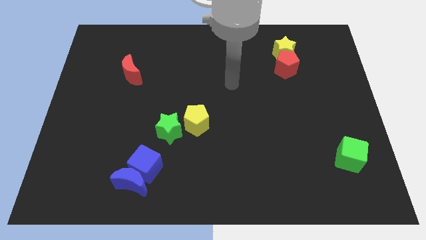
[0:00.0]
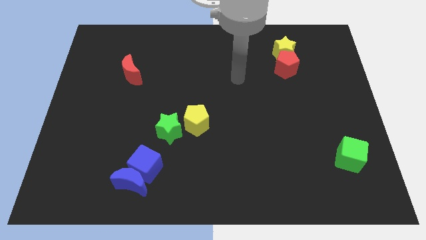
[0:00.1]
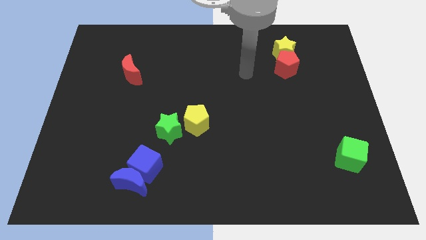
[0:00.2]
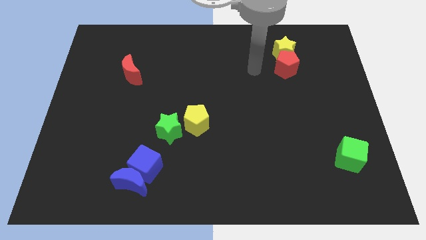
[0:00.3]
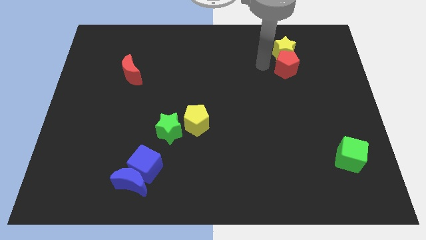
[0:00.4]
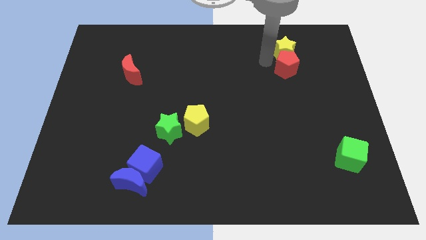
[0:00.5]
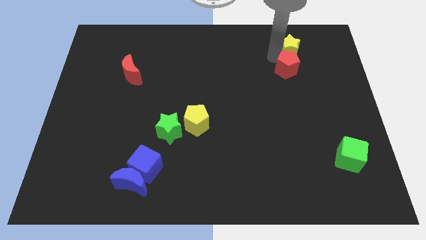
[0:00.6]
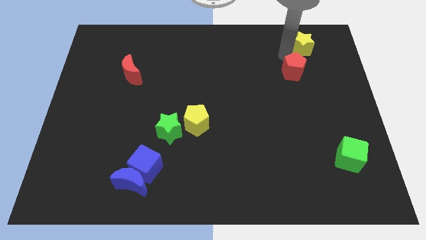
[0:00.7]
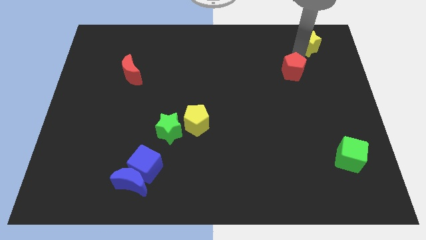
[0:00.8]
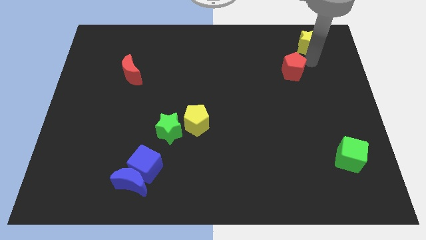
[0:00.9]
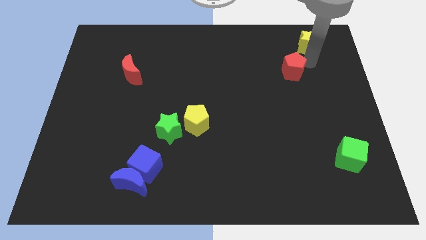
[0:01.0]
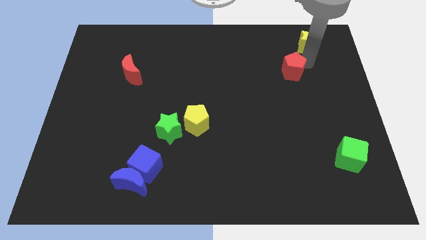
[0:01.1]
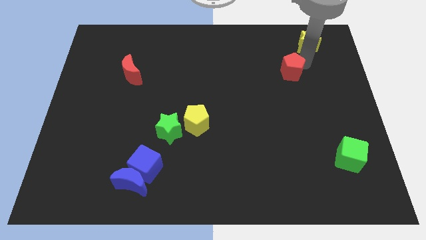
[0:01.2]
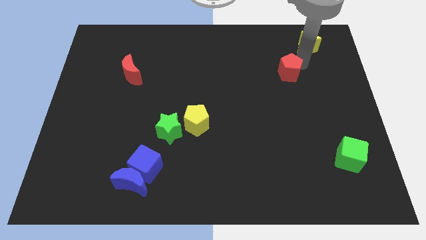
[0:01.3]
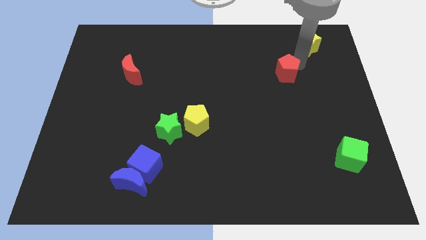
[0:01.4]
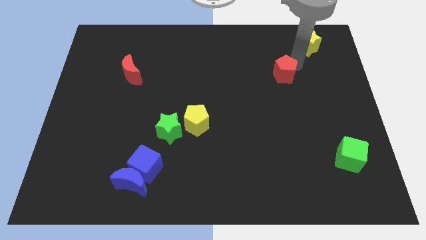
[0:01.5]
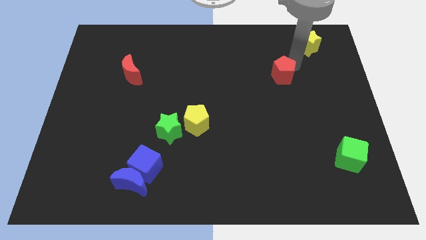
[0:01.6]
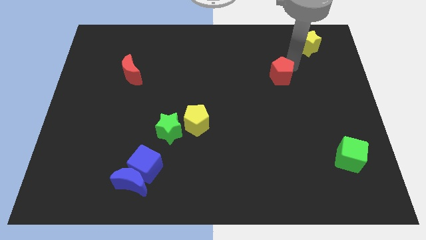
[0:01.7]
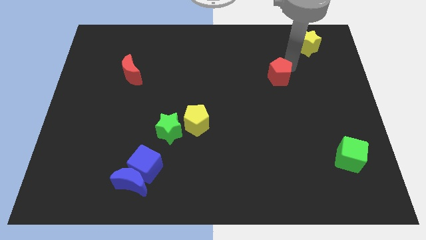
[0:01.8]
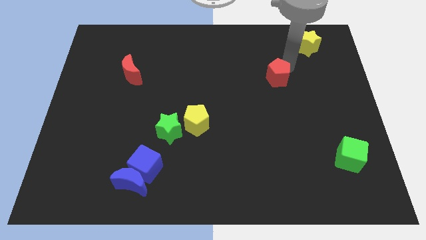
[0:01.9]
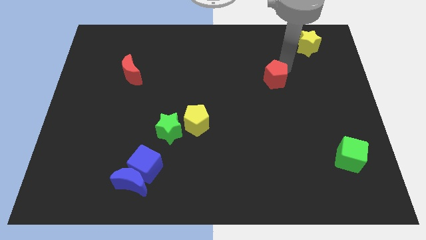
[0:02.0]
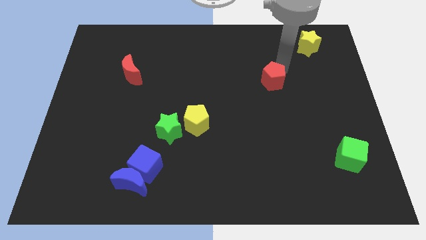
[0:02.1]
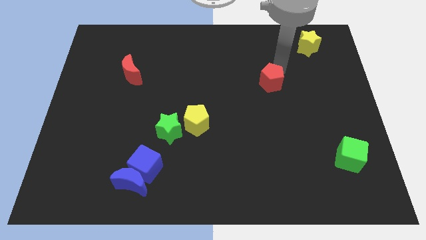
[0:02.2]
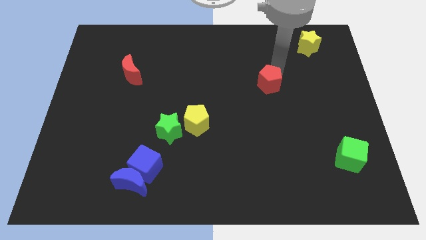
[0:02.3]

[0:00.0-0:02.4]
slightly slide the red pentagon diagonally down and left

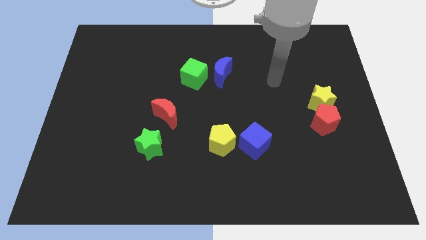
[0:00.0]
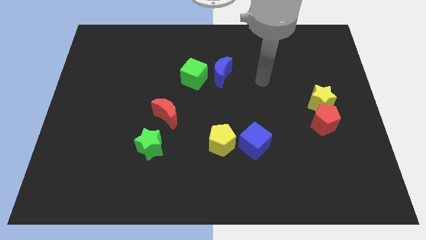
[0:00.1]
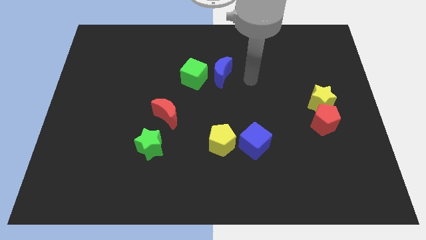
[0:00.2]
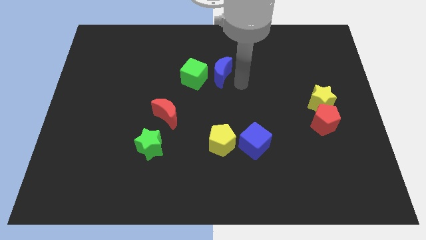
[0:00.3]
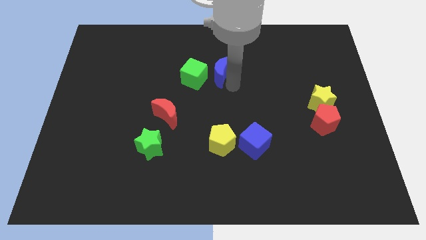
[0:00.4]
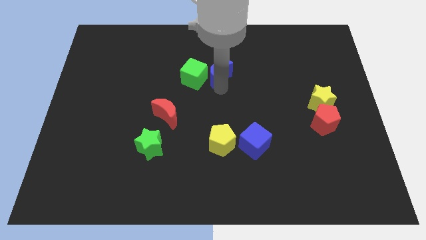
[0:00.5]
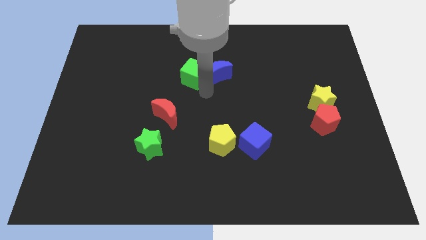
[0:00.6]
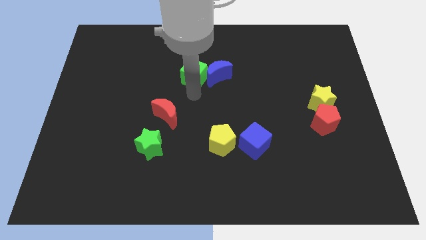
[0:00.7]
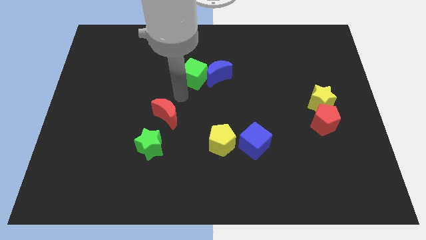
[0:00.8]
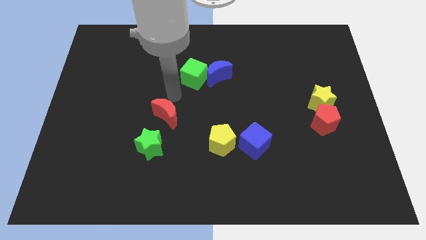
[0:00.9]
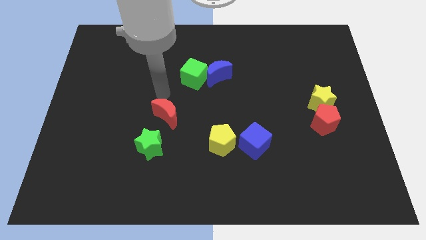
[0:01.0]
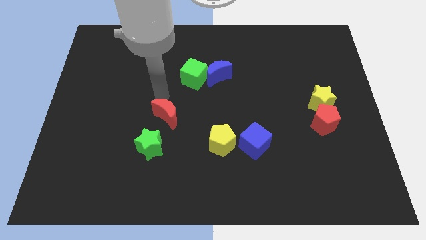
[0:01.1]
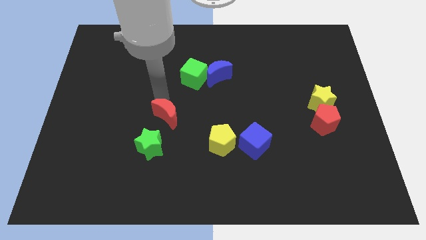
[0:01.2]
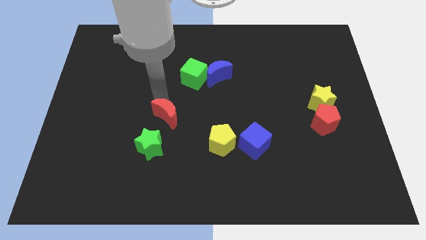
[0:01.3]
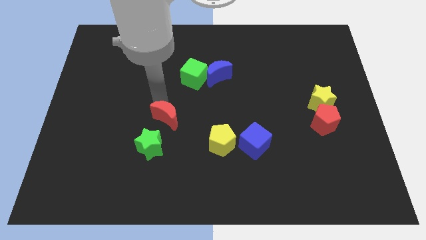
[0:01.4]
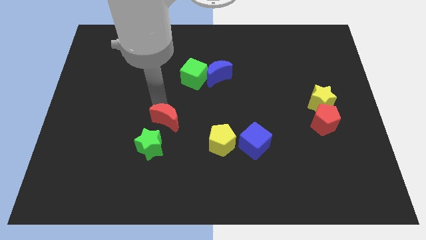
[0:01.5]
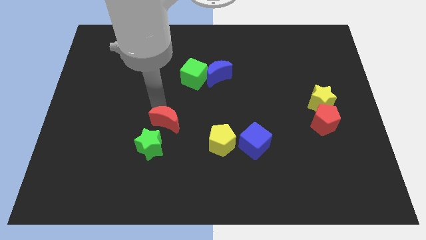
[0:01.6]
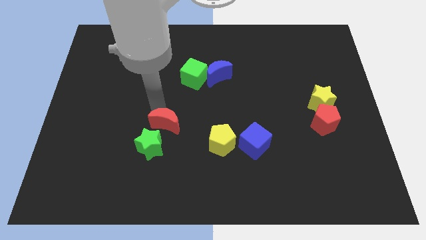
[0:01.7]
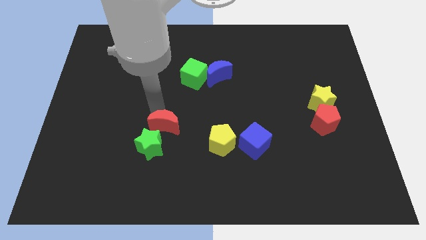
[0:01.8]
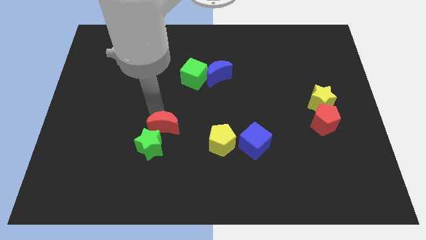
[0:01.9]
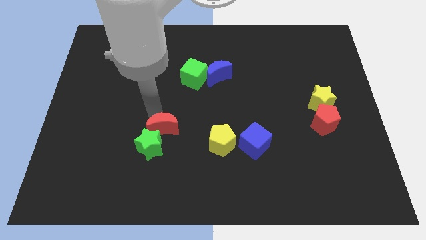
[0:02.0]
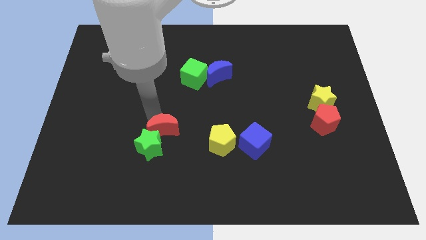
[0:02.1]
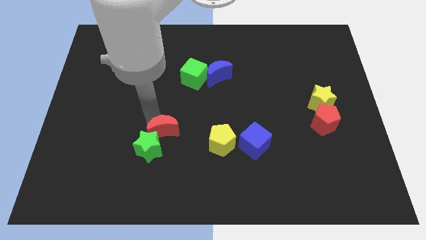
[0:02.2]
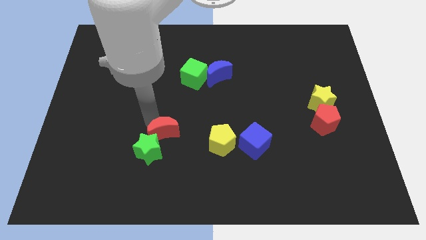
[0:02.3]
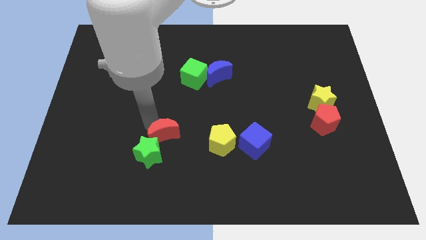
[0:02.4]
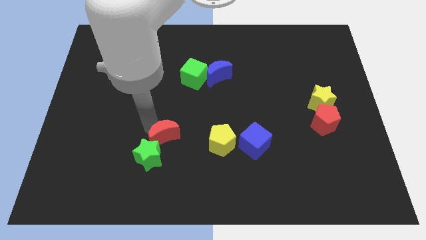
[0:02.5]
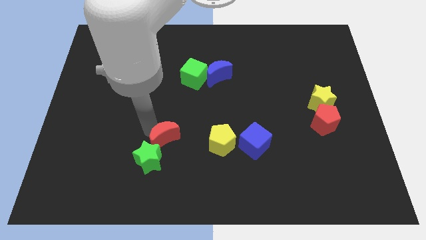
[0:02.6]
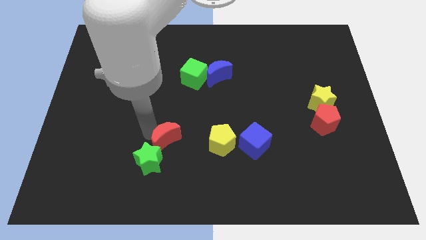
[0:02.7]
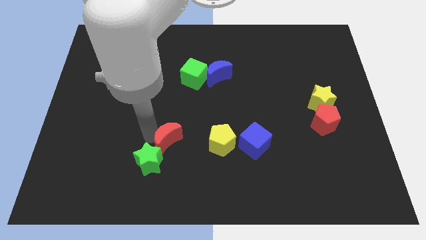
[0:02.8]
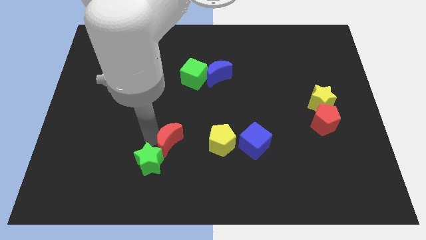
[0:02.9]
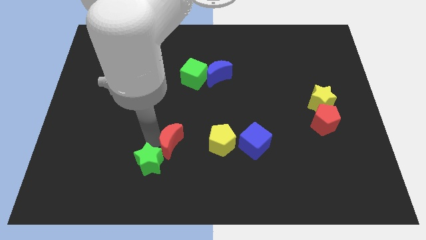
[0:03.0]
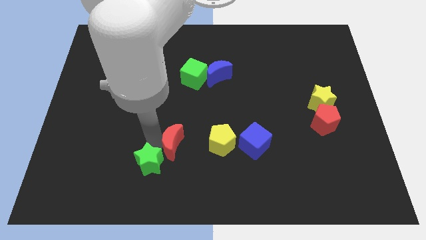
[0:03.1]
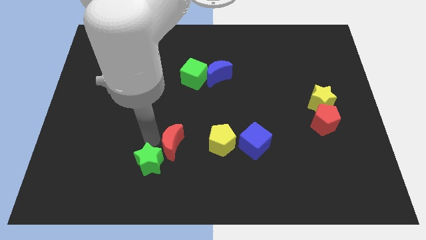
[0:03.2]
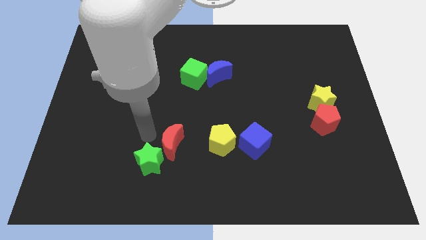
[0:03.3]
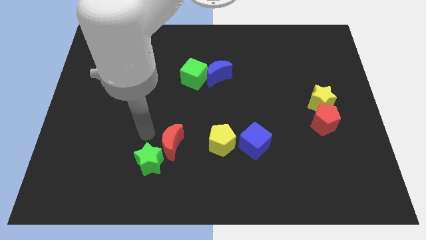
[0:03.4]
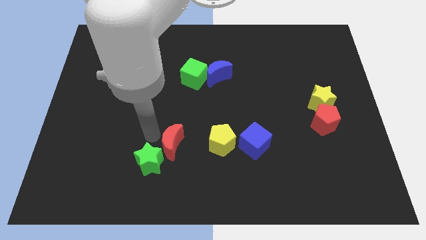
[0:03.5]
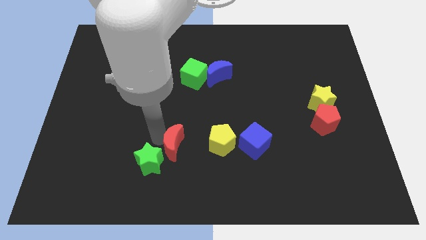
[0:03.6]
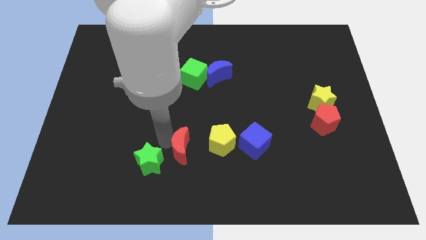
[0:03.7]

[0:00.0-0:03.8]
slide the red moon downwards and right a little

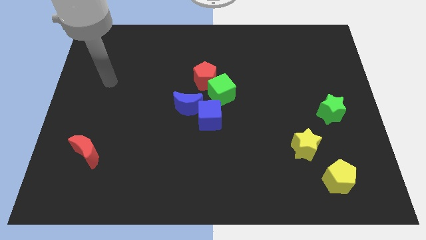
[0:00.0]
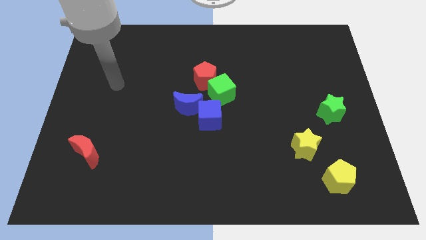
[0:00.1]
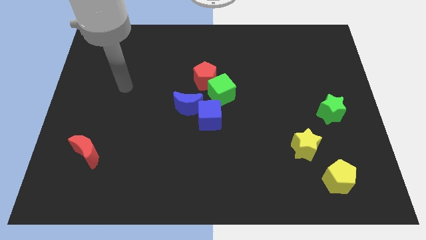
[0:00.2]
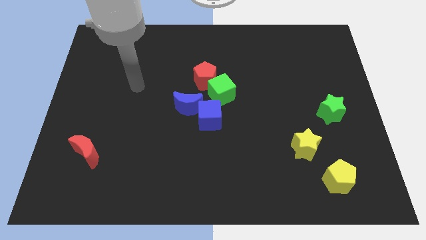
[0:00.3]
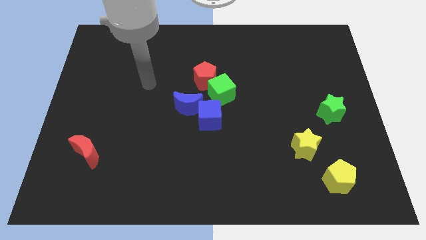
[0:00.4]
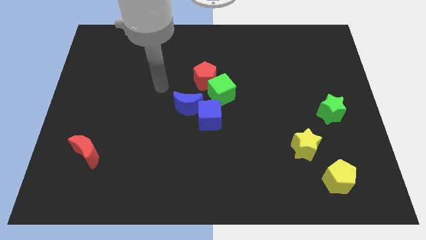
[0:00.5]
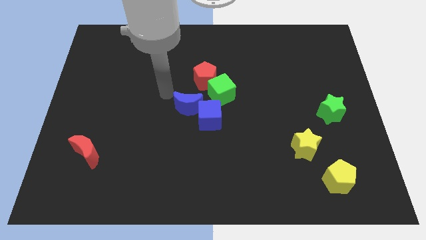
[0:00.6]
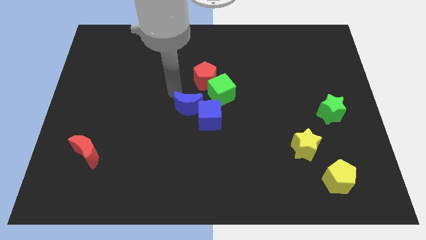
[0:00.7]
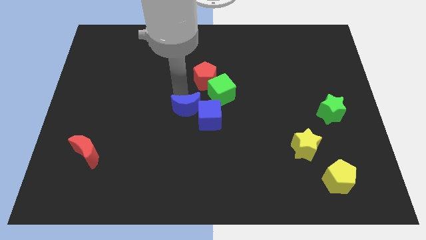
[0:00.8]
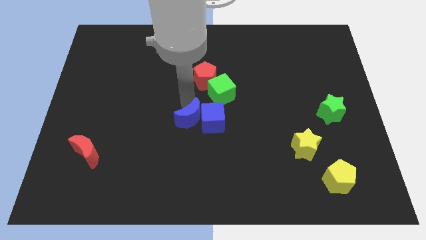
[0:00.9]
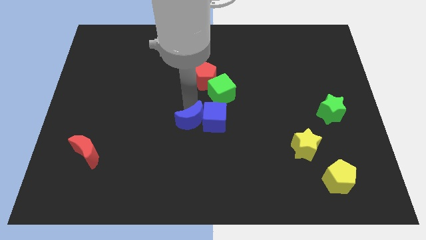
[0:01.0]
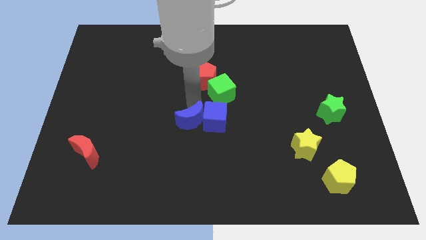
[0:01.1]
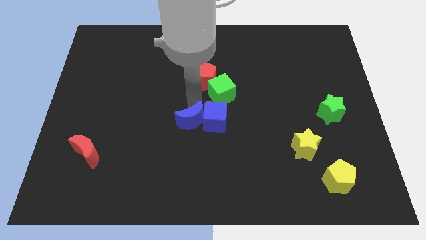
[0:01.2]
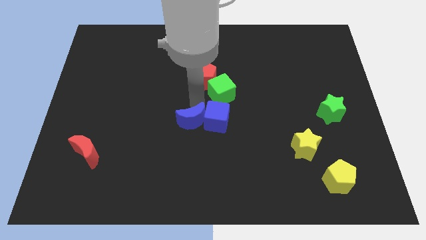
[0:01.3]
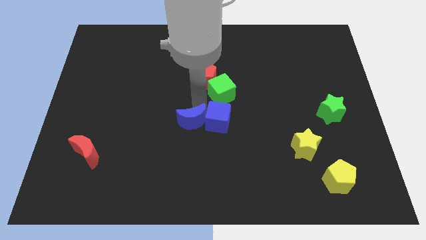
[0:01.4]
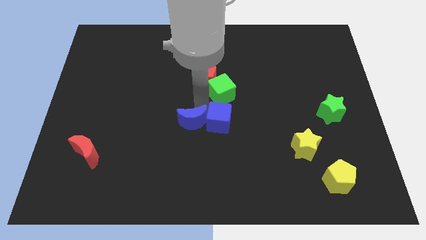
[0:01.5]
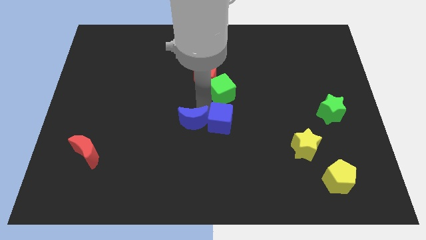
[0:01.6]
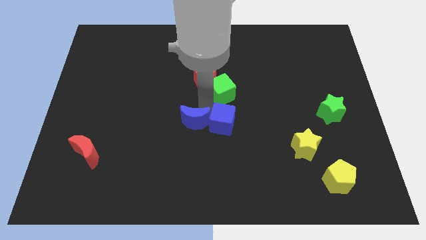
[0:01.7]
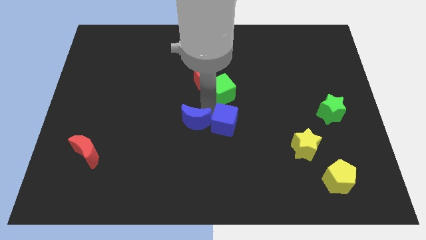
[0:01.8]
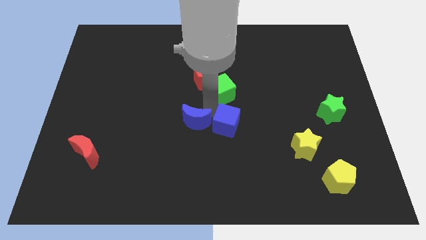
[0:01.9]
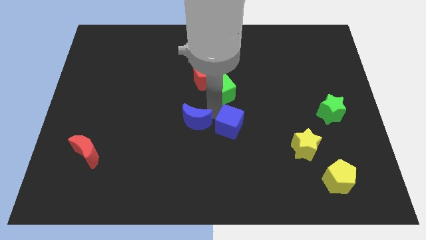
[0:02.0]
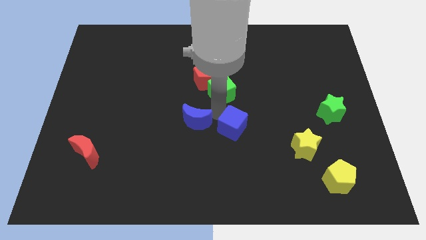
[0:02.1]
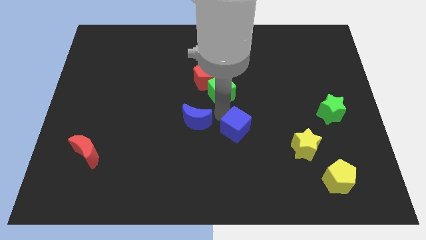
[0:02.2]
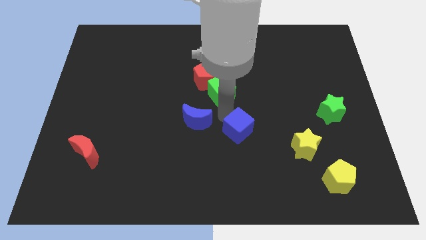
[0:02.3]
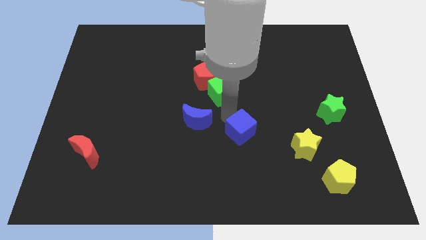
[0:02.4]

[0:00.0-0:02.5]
push the blue cube a little down and then to the right
